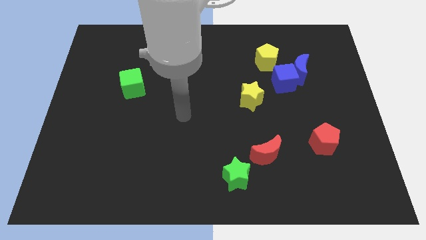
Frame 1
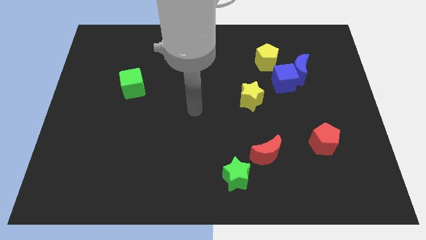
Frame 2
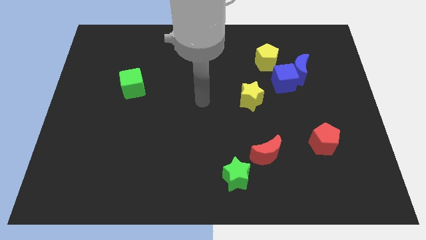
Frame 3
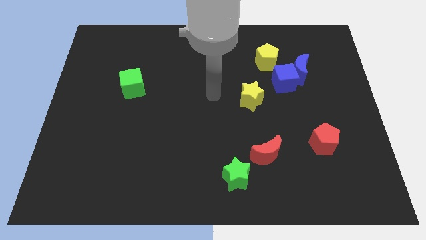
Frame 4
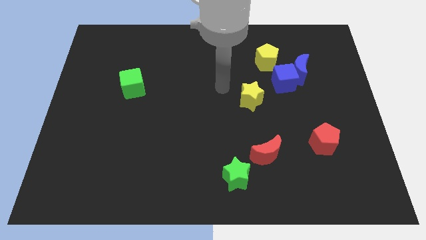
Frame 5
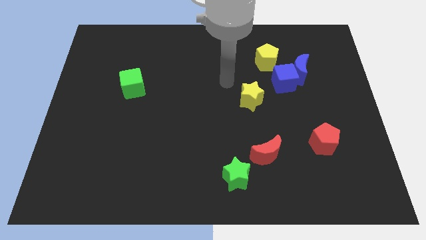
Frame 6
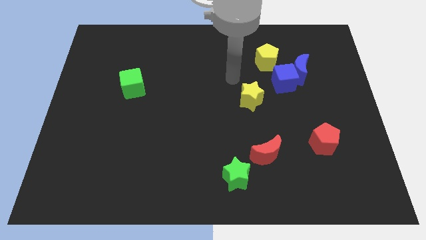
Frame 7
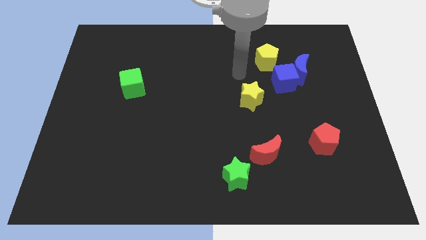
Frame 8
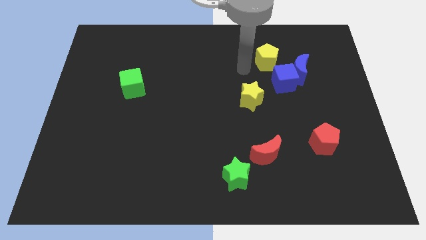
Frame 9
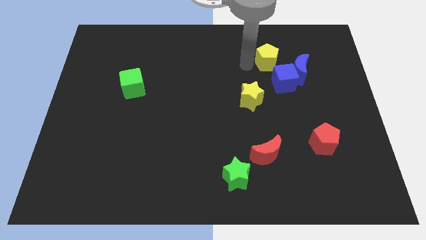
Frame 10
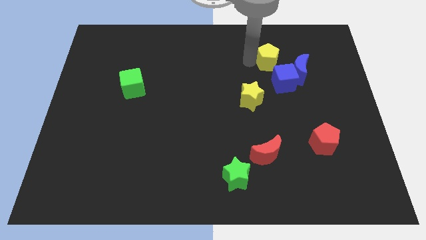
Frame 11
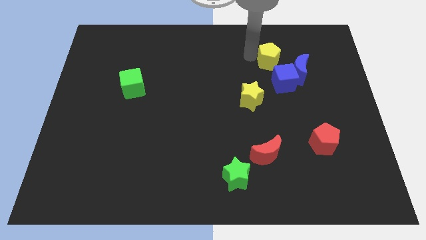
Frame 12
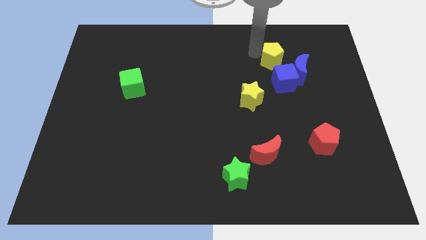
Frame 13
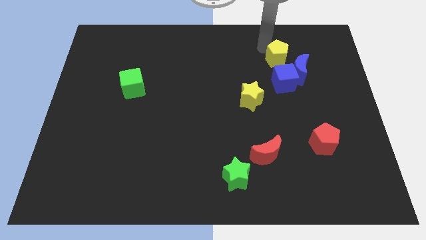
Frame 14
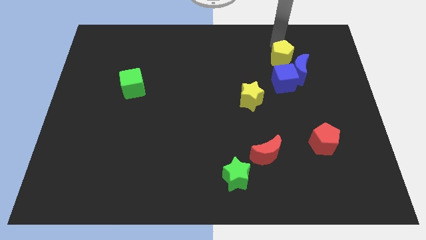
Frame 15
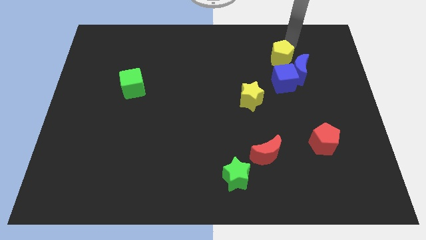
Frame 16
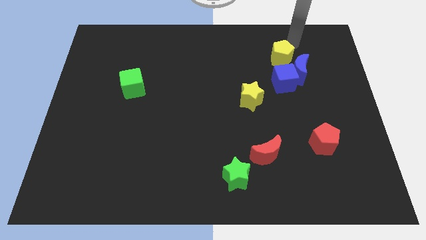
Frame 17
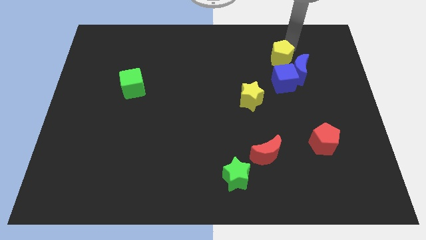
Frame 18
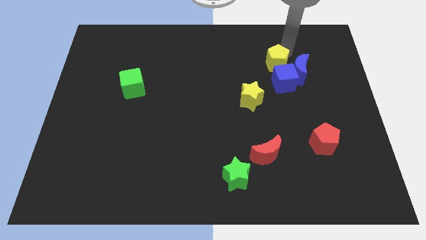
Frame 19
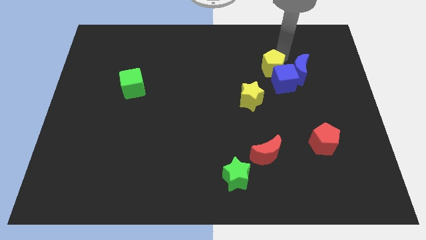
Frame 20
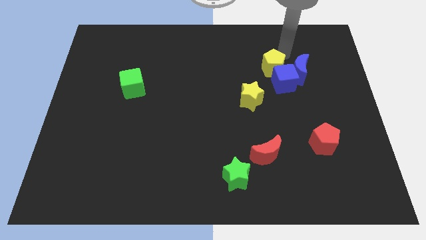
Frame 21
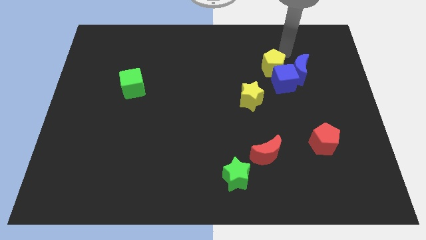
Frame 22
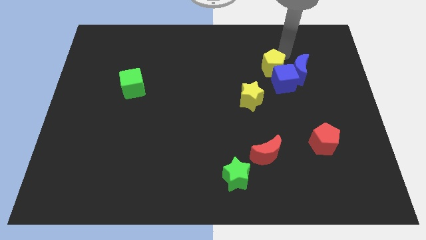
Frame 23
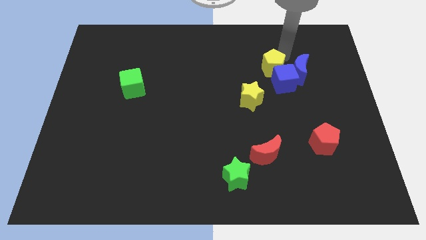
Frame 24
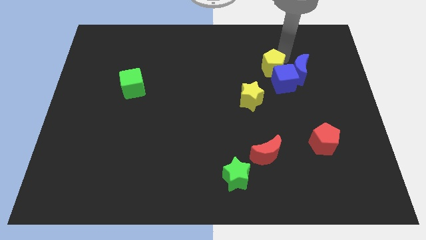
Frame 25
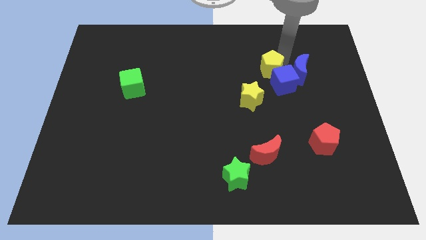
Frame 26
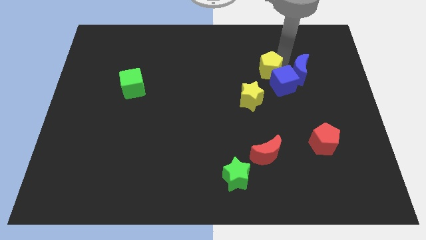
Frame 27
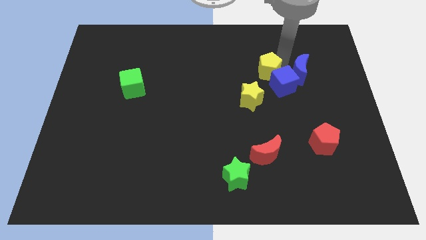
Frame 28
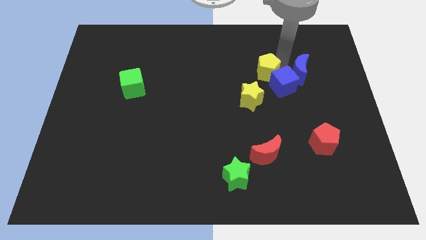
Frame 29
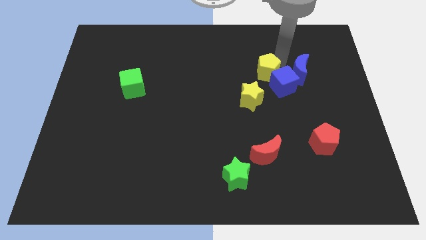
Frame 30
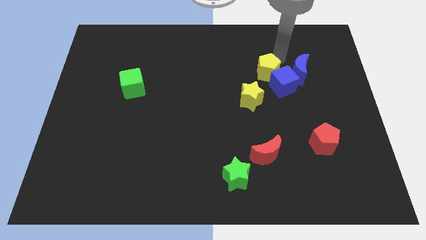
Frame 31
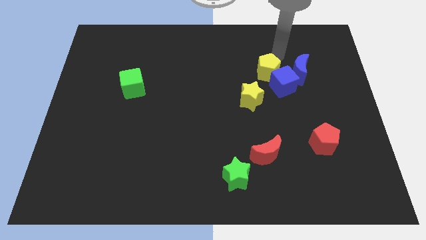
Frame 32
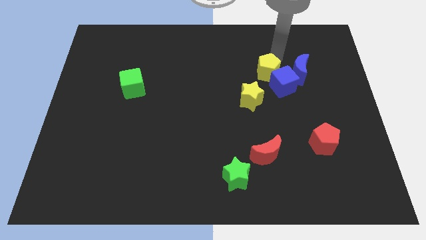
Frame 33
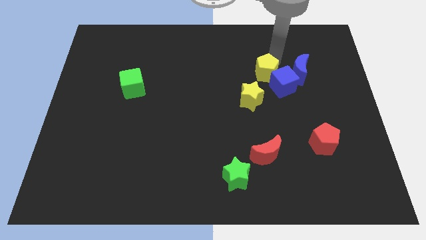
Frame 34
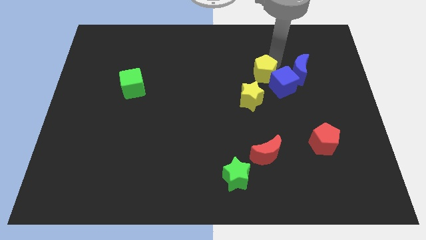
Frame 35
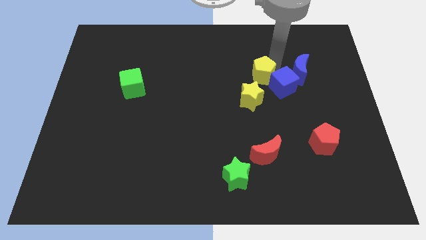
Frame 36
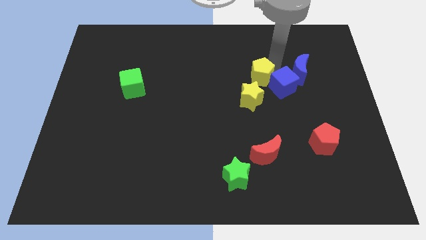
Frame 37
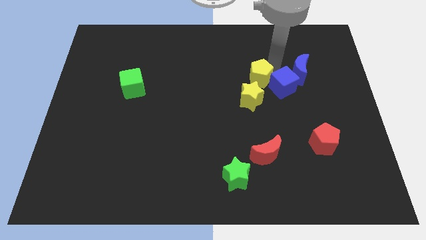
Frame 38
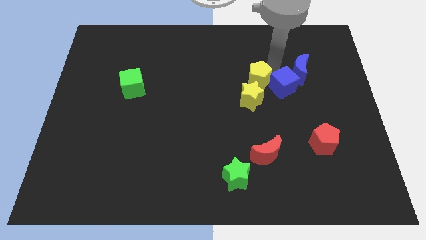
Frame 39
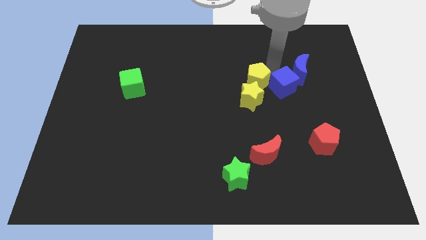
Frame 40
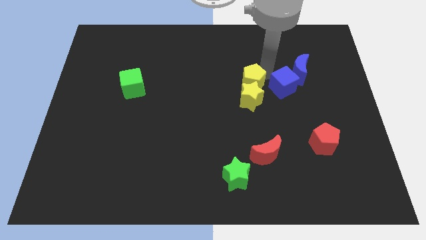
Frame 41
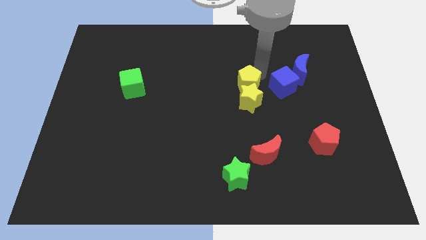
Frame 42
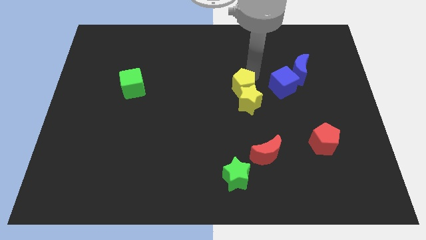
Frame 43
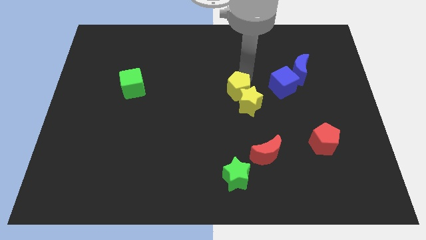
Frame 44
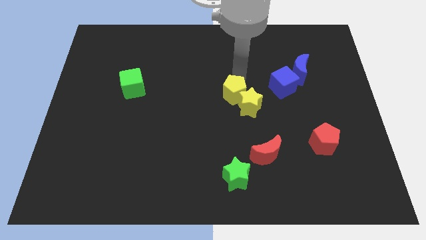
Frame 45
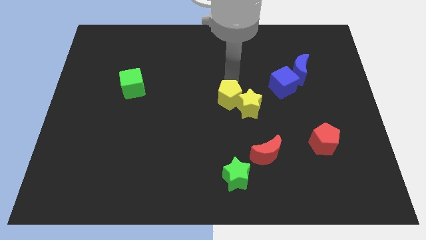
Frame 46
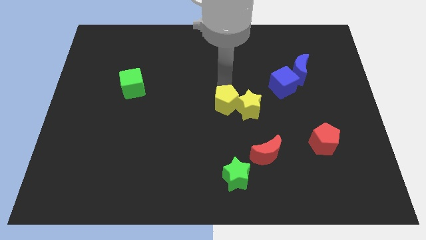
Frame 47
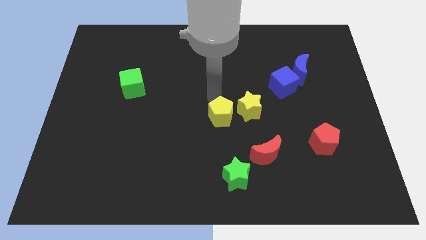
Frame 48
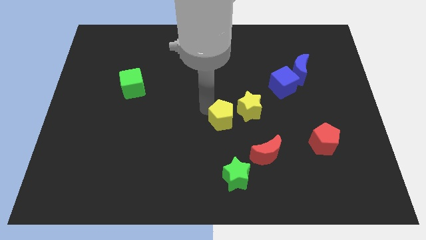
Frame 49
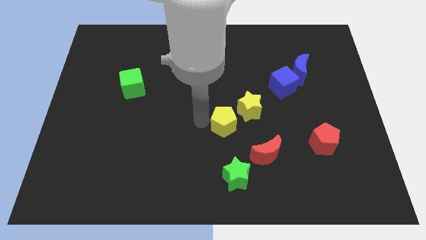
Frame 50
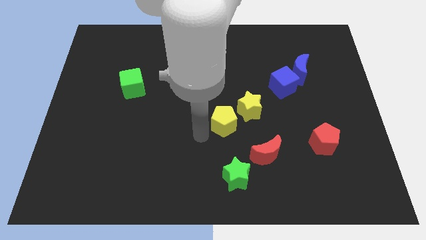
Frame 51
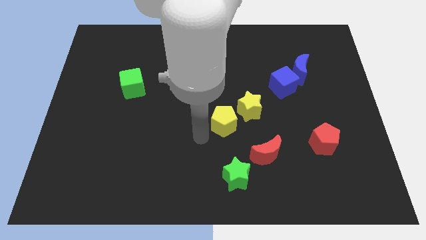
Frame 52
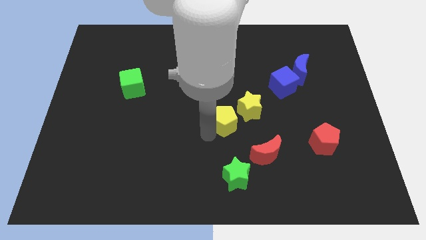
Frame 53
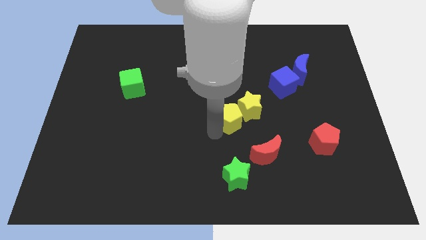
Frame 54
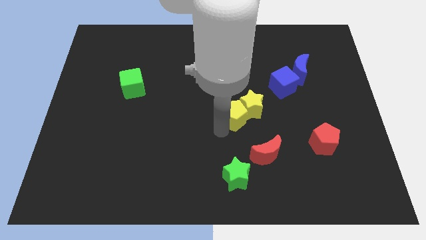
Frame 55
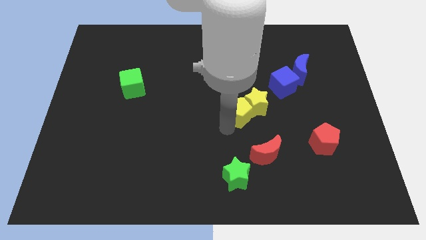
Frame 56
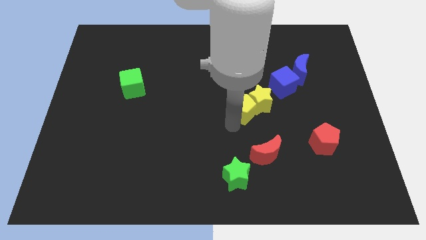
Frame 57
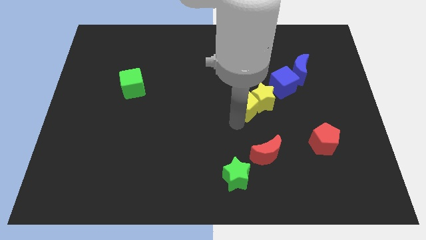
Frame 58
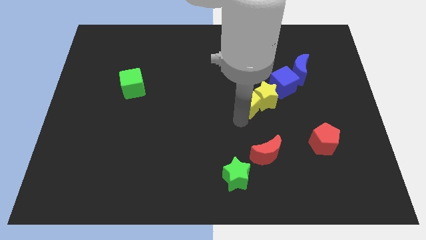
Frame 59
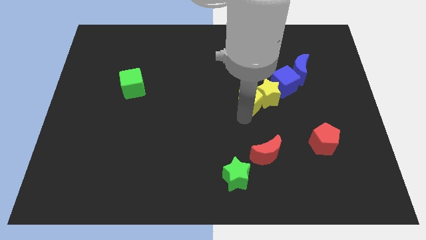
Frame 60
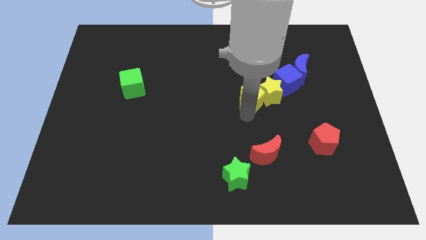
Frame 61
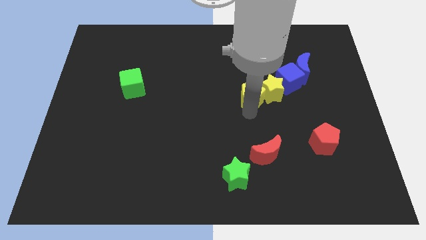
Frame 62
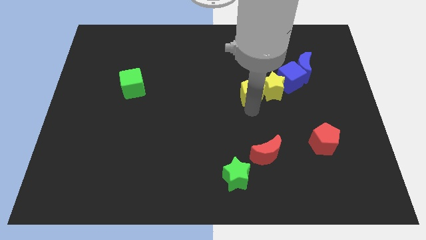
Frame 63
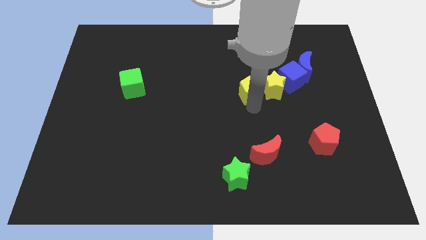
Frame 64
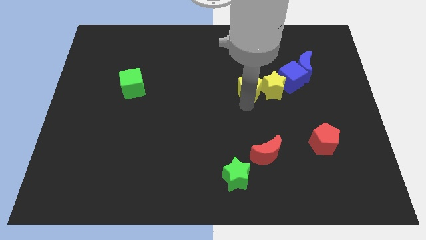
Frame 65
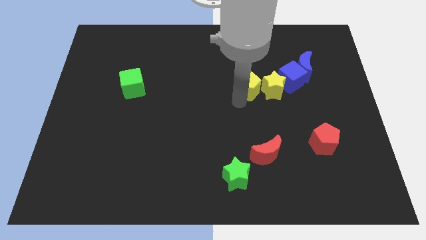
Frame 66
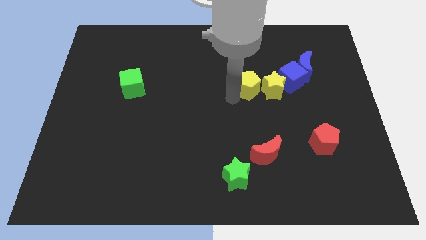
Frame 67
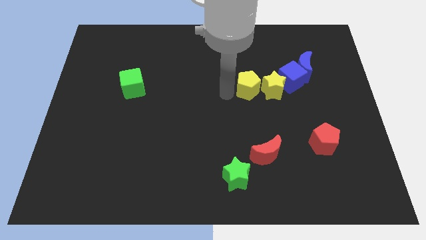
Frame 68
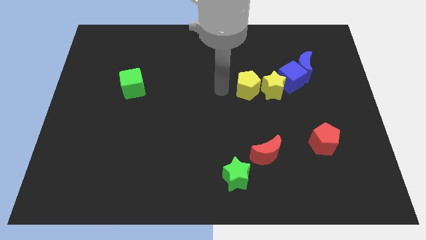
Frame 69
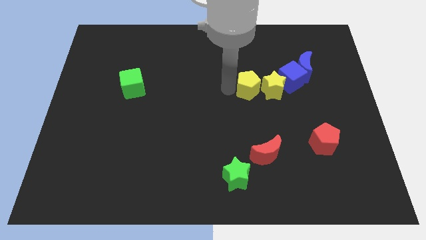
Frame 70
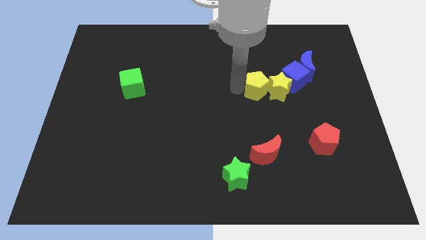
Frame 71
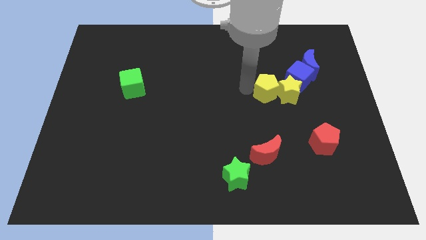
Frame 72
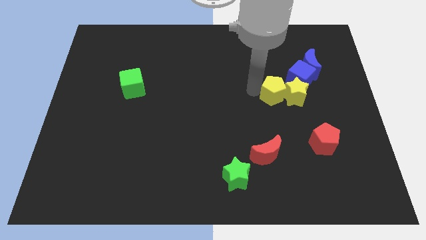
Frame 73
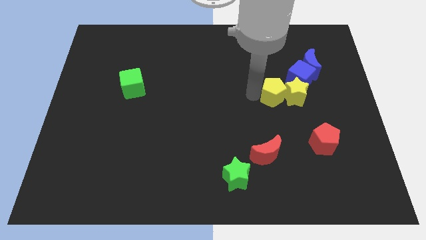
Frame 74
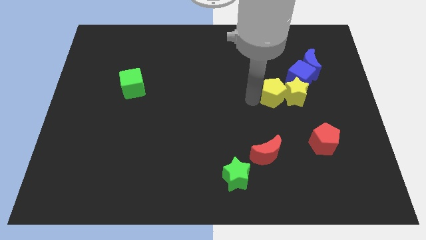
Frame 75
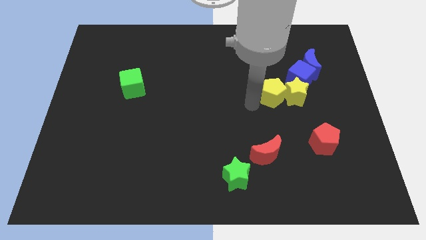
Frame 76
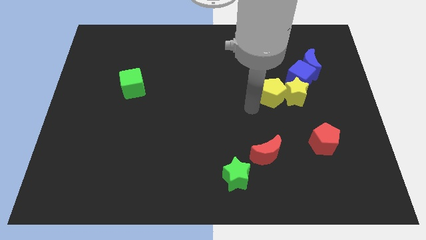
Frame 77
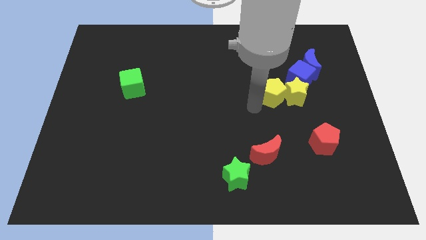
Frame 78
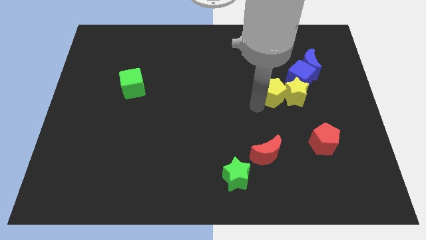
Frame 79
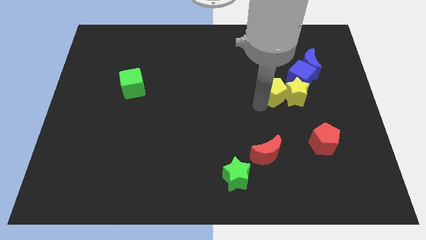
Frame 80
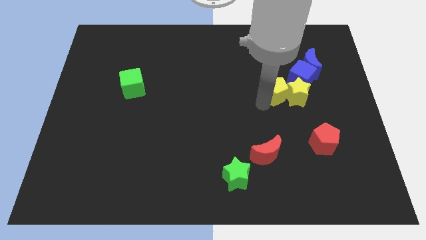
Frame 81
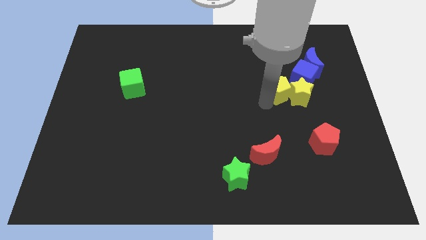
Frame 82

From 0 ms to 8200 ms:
put the yellow pentagon diagonally down and to the left of the blue moon
